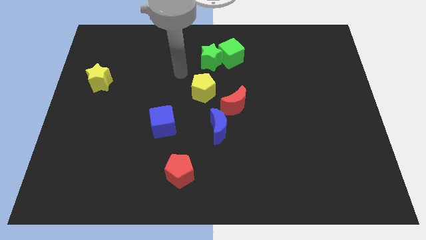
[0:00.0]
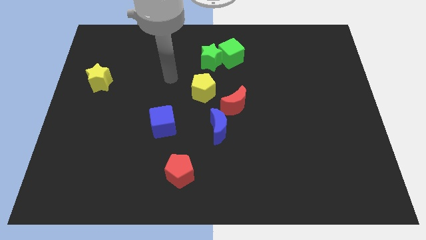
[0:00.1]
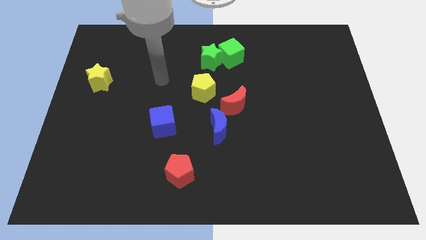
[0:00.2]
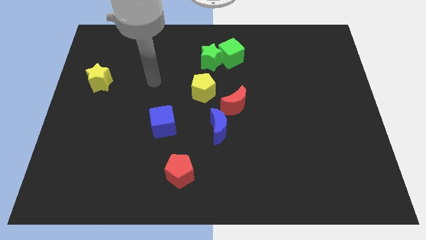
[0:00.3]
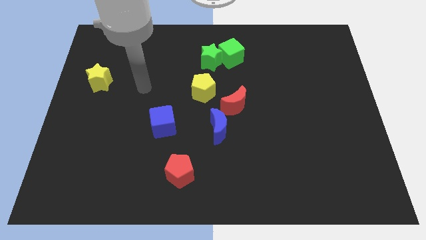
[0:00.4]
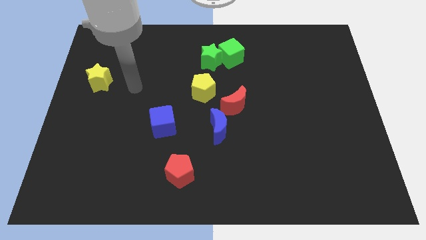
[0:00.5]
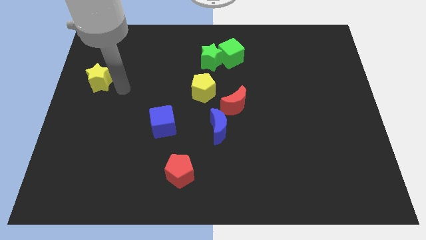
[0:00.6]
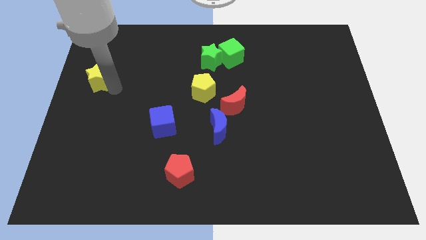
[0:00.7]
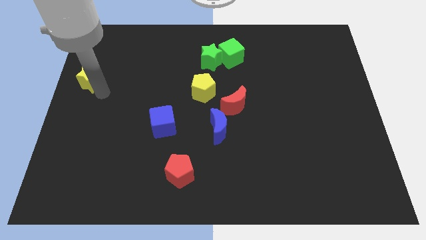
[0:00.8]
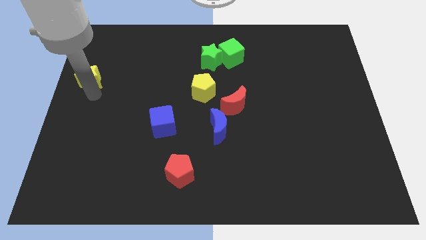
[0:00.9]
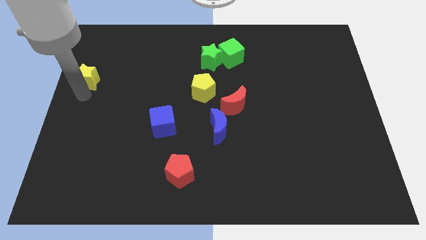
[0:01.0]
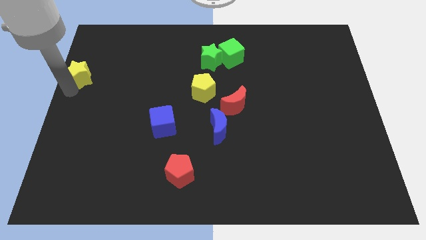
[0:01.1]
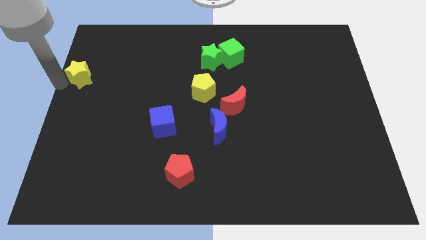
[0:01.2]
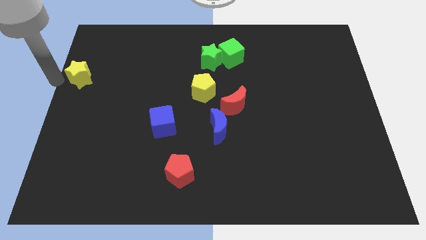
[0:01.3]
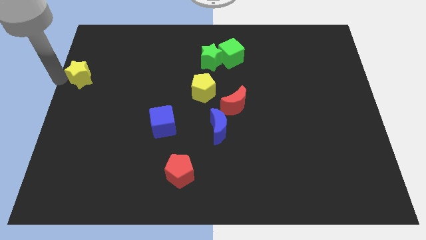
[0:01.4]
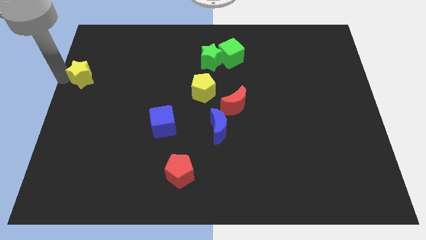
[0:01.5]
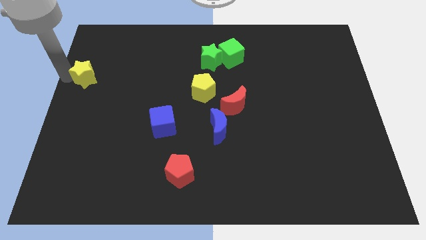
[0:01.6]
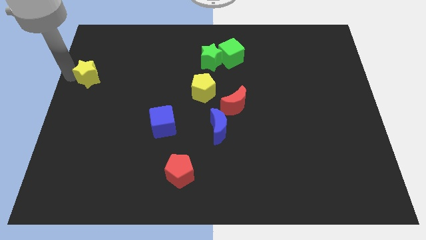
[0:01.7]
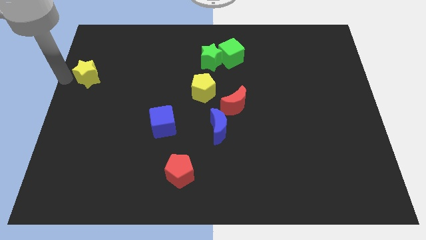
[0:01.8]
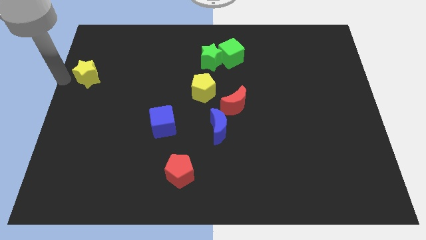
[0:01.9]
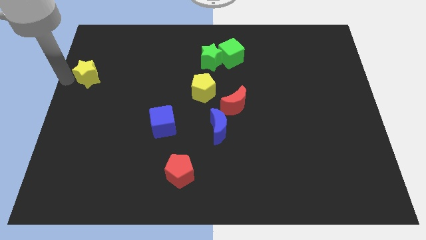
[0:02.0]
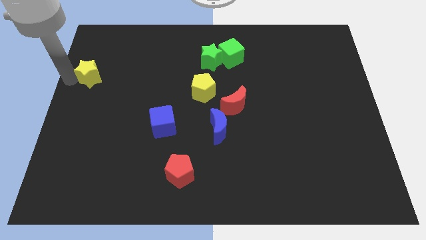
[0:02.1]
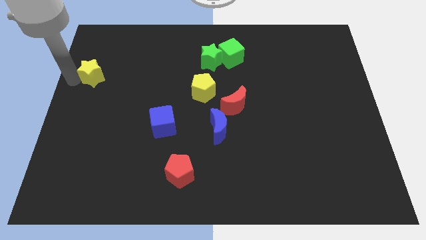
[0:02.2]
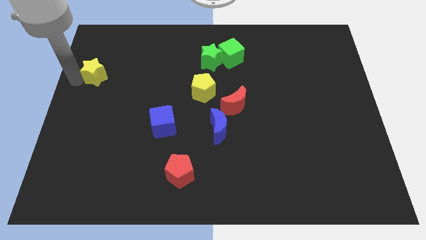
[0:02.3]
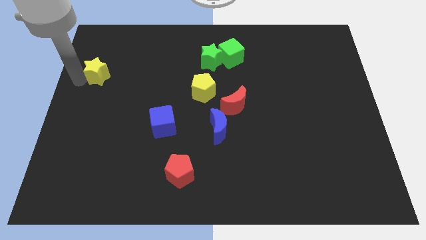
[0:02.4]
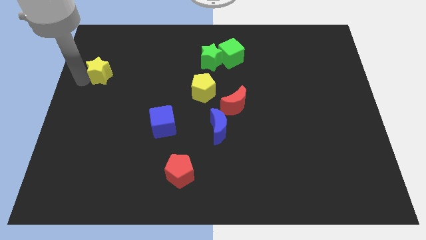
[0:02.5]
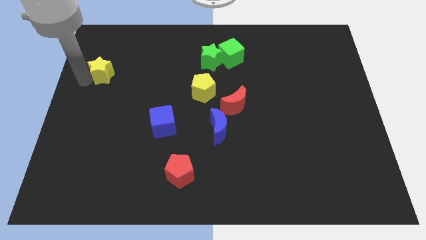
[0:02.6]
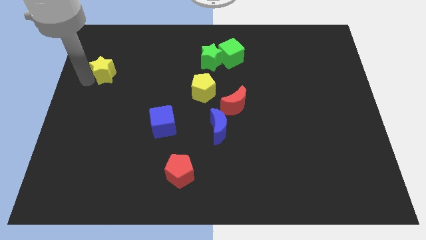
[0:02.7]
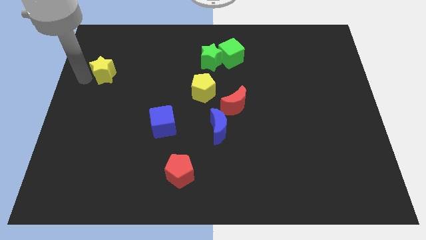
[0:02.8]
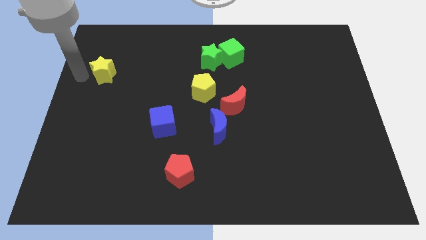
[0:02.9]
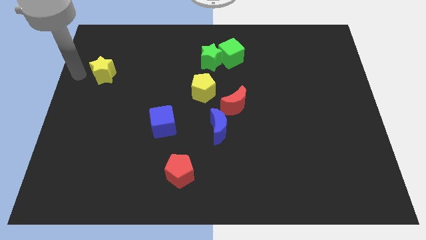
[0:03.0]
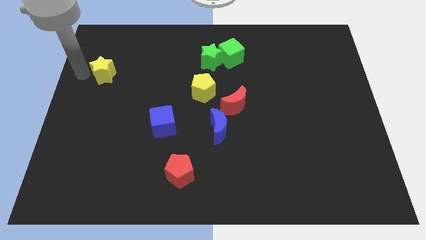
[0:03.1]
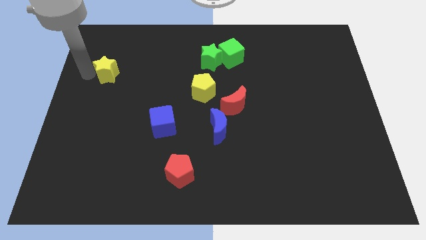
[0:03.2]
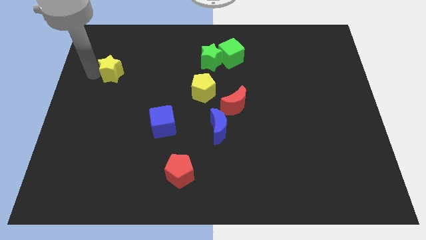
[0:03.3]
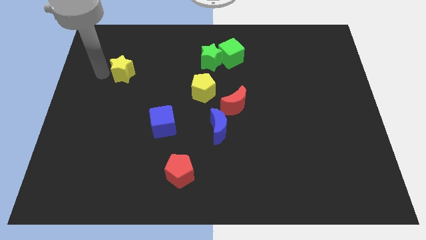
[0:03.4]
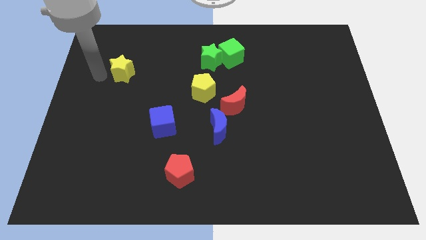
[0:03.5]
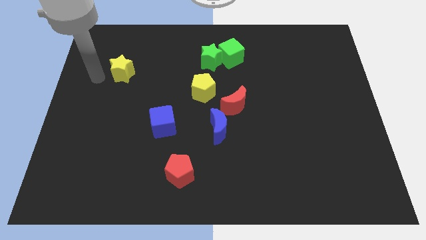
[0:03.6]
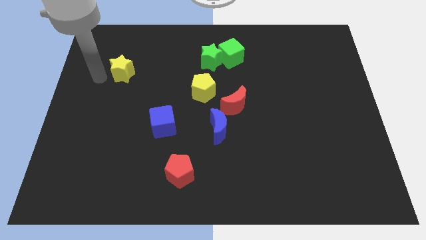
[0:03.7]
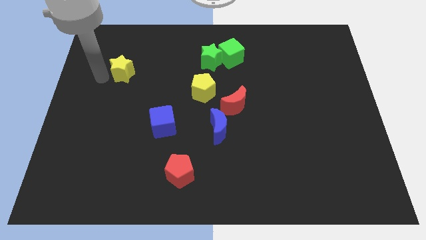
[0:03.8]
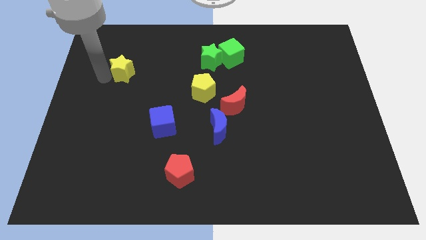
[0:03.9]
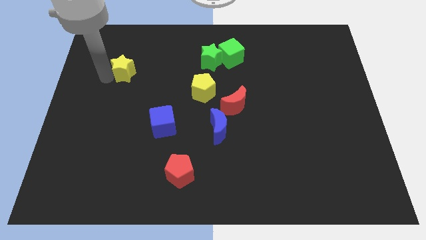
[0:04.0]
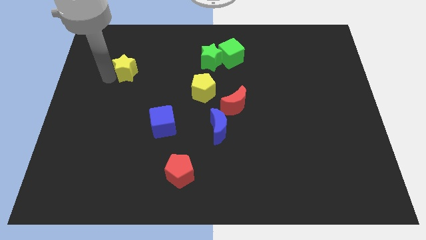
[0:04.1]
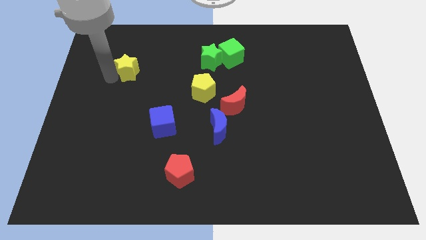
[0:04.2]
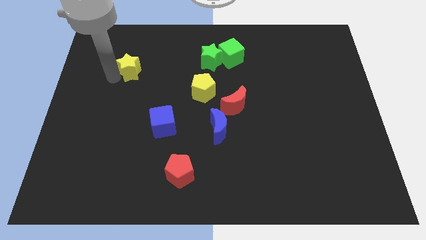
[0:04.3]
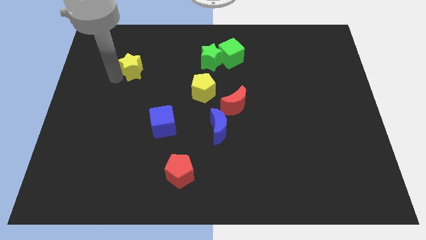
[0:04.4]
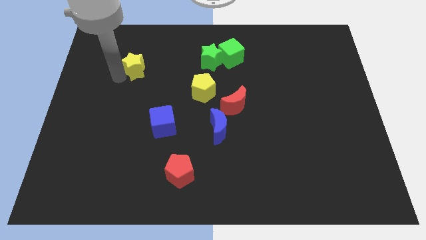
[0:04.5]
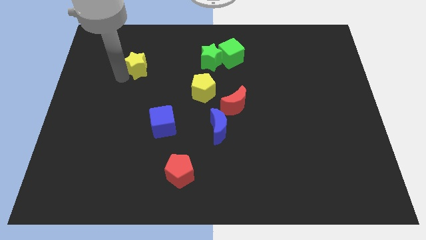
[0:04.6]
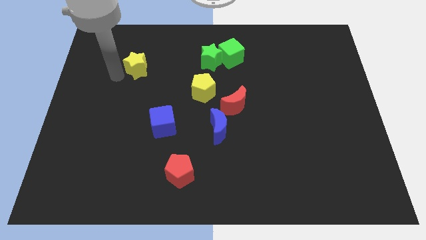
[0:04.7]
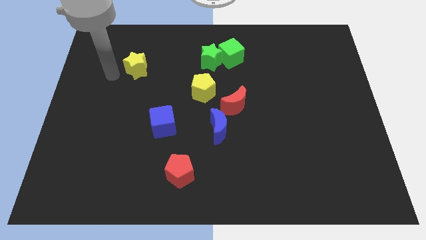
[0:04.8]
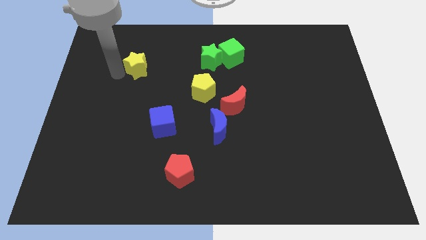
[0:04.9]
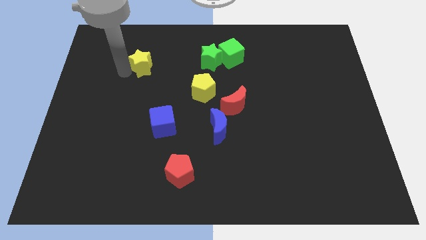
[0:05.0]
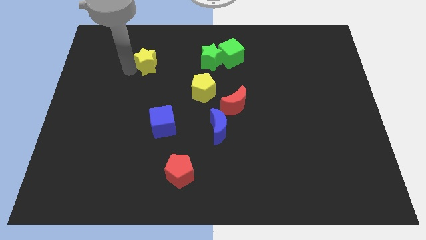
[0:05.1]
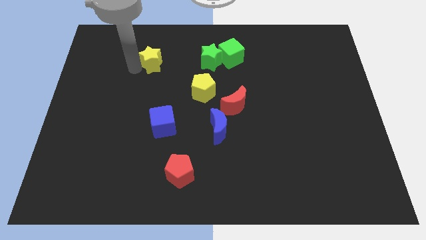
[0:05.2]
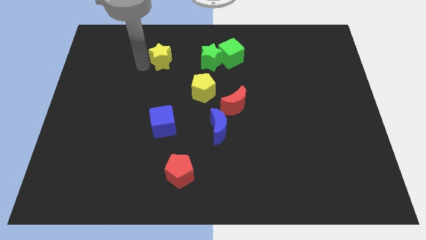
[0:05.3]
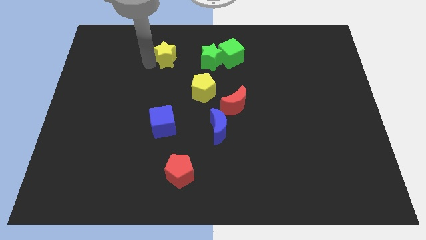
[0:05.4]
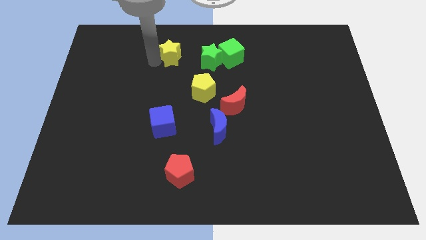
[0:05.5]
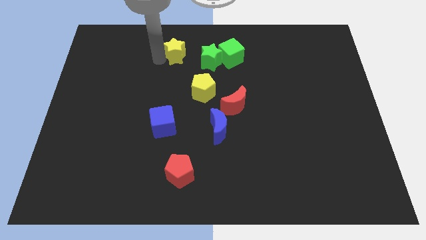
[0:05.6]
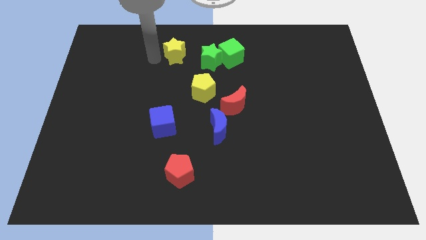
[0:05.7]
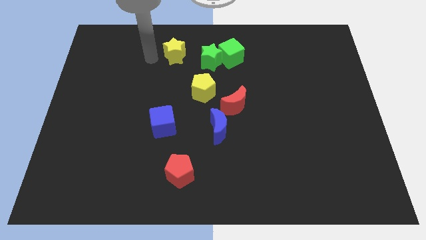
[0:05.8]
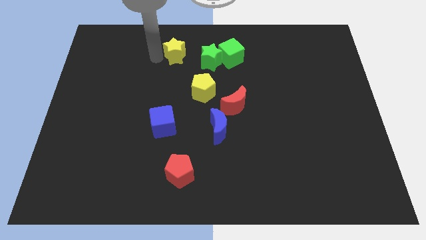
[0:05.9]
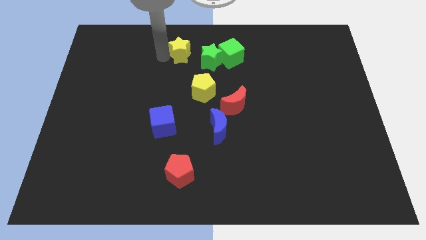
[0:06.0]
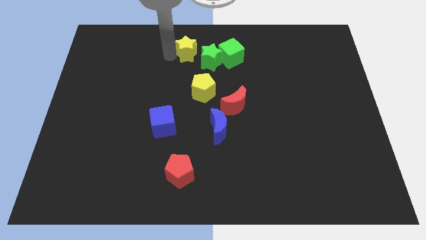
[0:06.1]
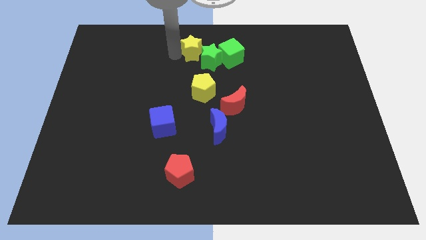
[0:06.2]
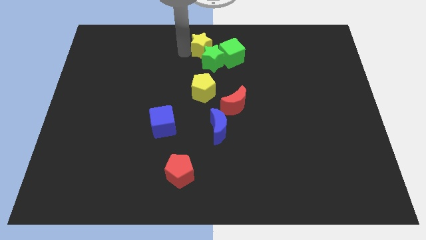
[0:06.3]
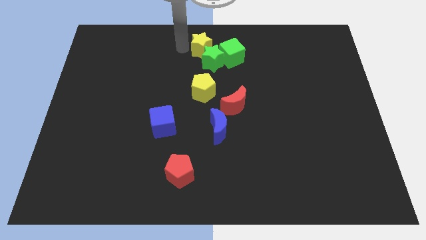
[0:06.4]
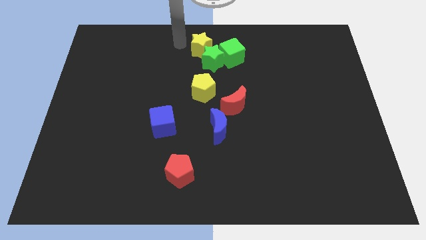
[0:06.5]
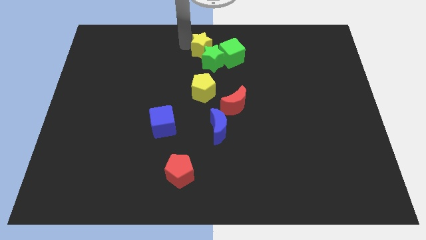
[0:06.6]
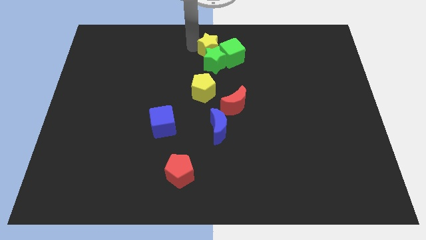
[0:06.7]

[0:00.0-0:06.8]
slide the yellow star to the green cube
